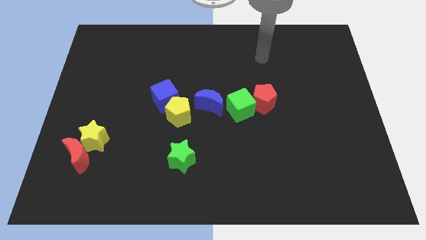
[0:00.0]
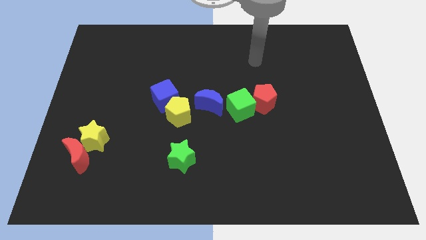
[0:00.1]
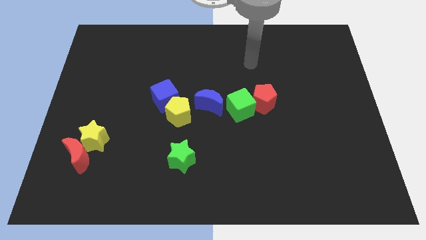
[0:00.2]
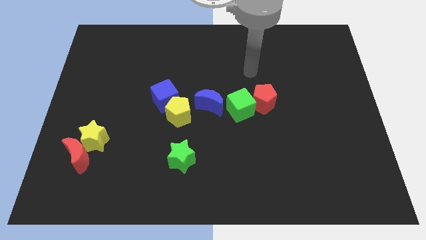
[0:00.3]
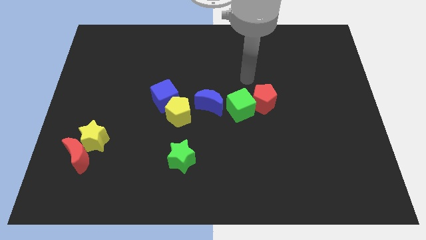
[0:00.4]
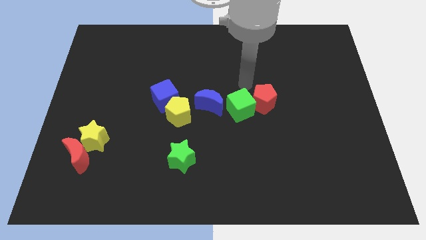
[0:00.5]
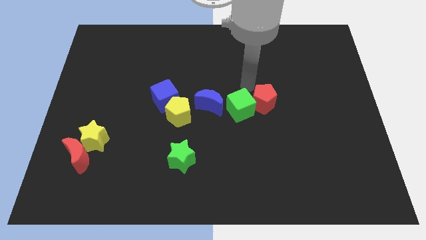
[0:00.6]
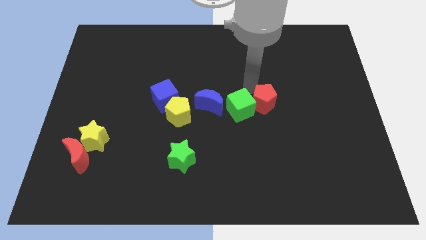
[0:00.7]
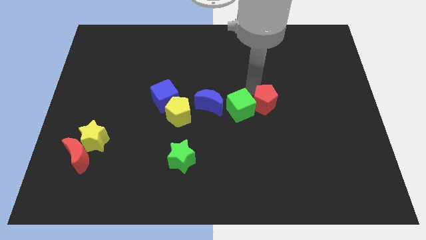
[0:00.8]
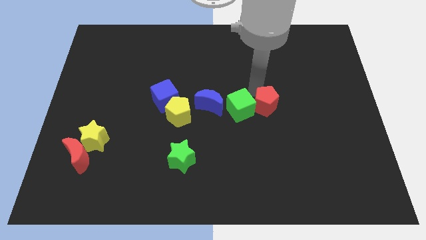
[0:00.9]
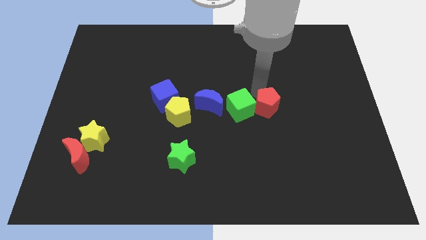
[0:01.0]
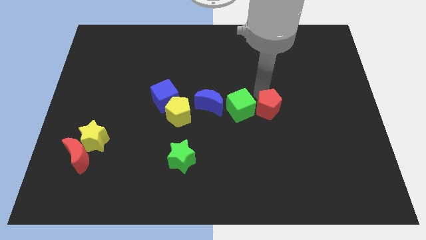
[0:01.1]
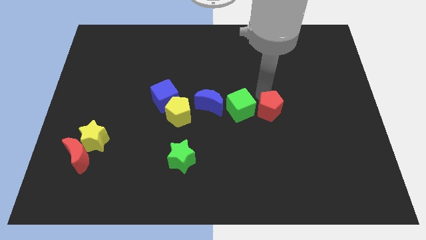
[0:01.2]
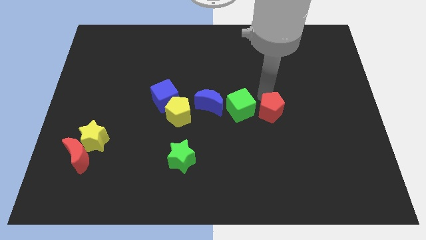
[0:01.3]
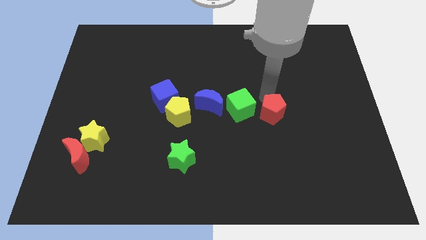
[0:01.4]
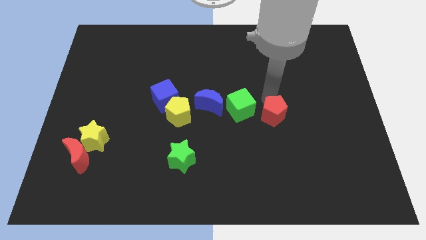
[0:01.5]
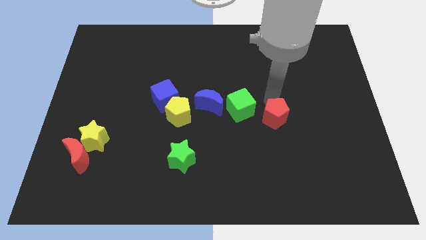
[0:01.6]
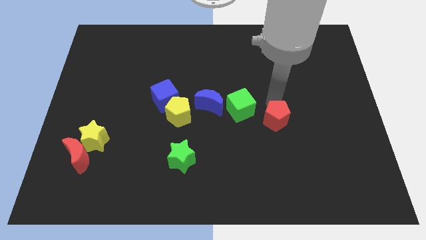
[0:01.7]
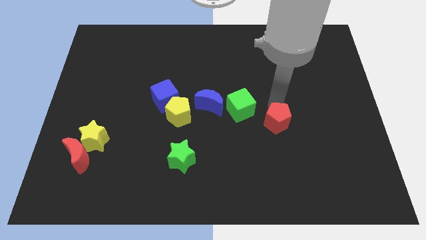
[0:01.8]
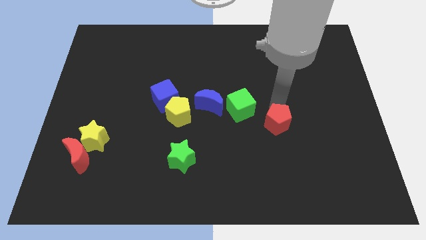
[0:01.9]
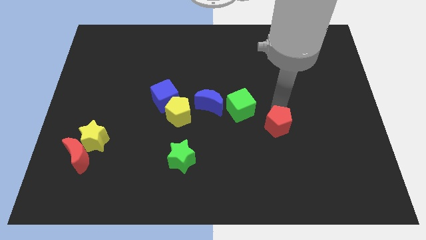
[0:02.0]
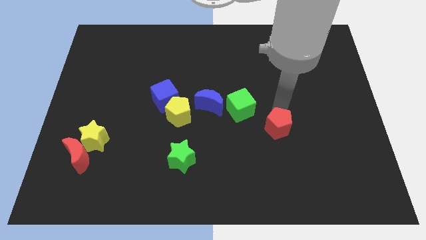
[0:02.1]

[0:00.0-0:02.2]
slide the red pentagon a bit down and right diagonally

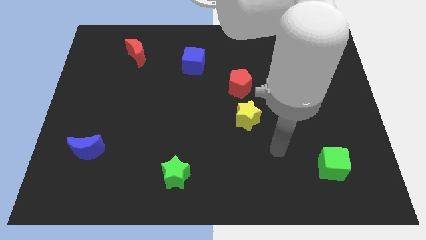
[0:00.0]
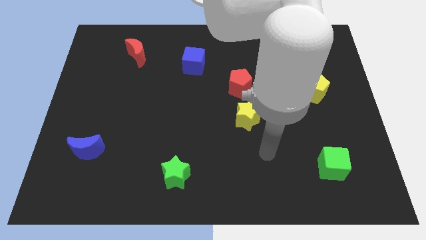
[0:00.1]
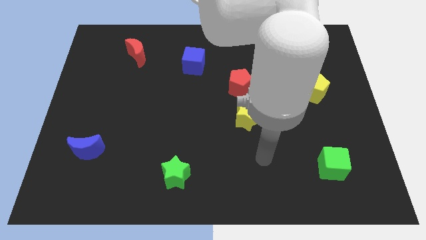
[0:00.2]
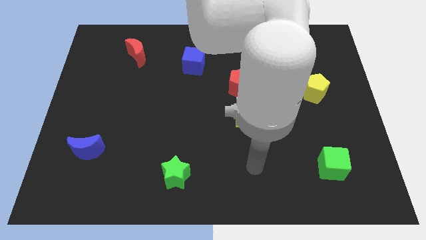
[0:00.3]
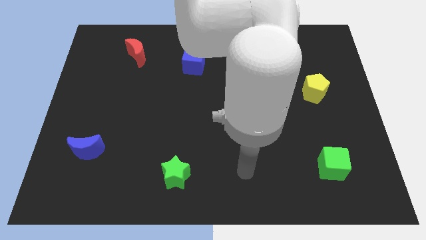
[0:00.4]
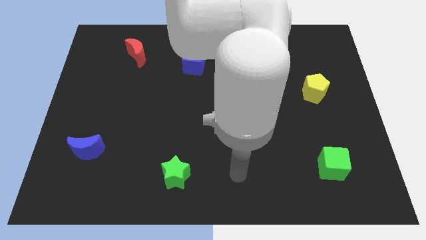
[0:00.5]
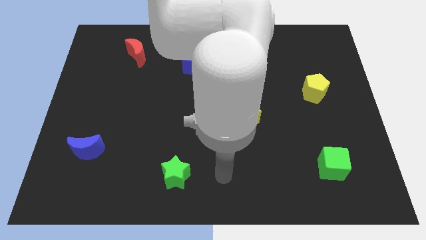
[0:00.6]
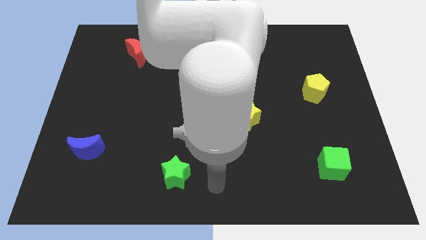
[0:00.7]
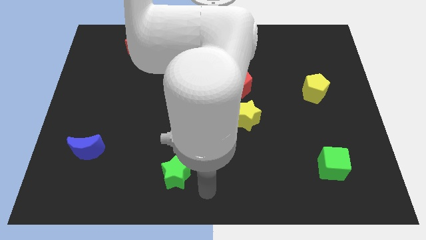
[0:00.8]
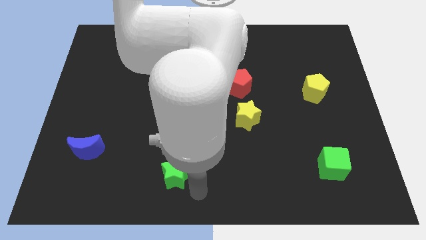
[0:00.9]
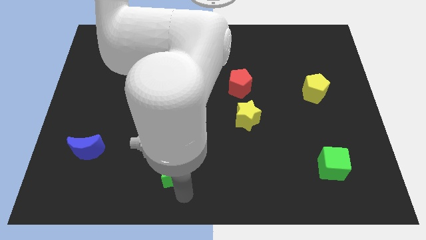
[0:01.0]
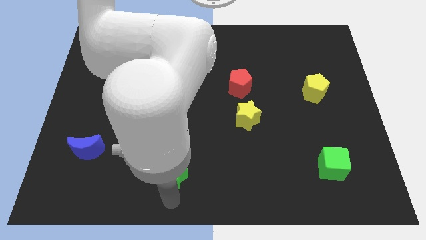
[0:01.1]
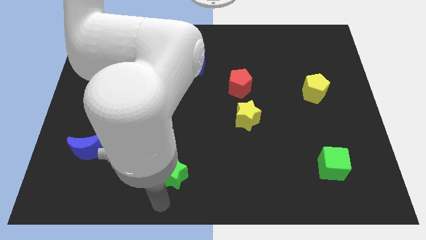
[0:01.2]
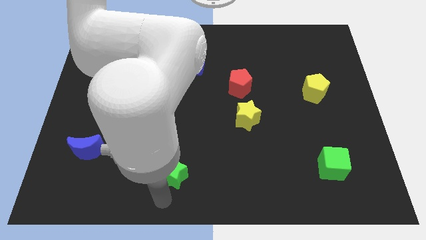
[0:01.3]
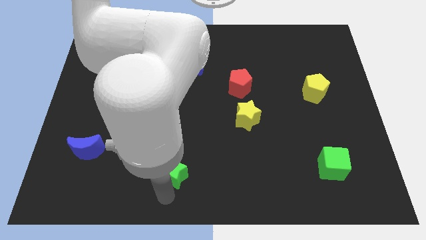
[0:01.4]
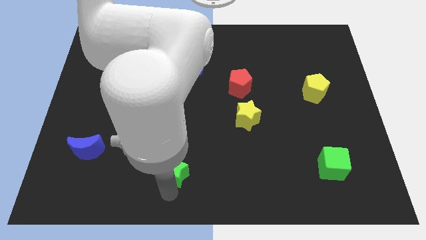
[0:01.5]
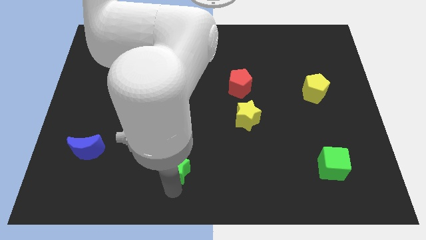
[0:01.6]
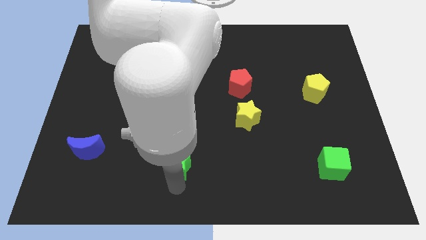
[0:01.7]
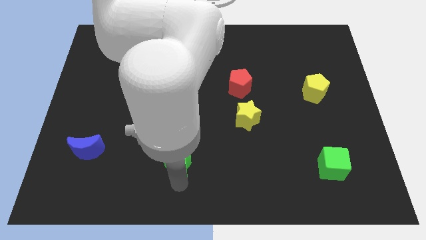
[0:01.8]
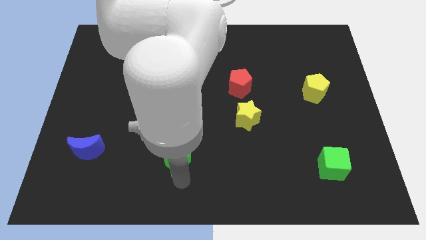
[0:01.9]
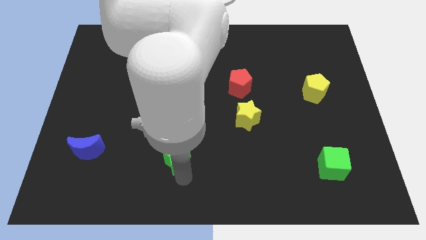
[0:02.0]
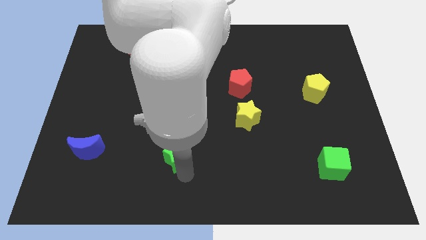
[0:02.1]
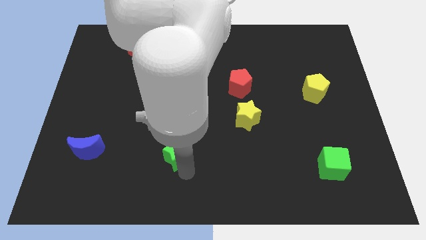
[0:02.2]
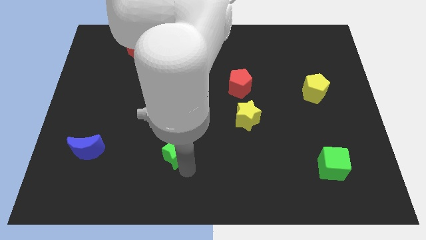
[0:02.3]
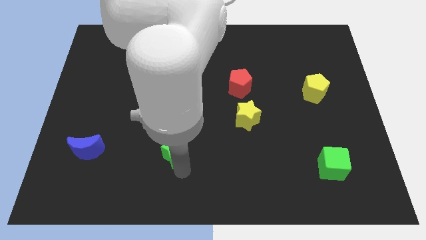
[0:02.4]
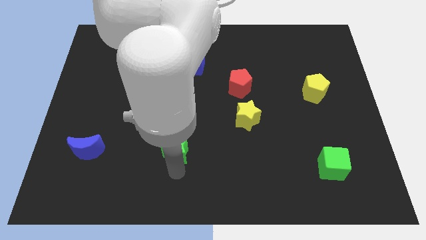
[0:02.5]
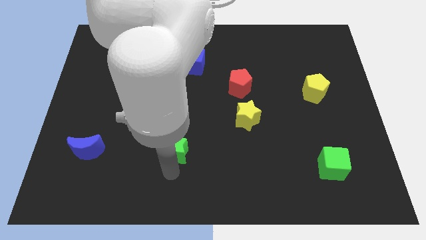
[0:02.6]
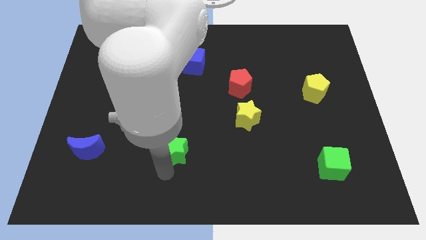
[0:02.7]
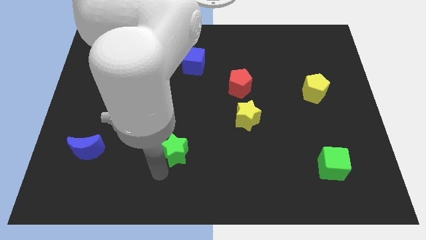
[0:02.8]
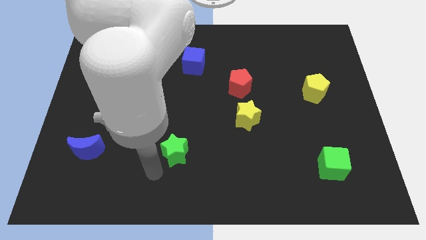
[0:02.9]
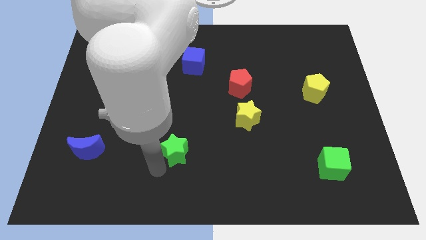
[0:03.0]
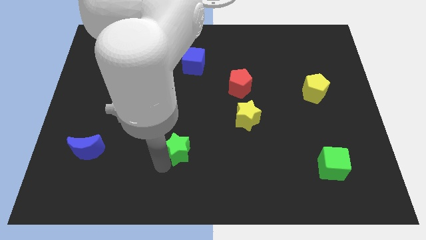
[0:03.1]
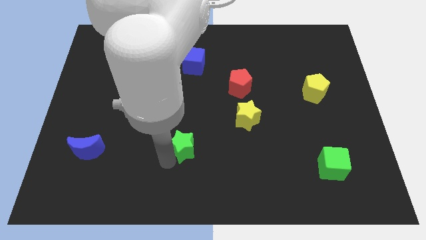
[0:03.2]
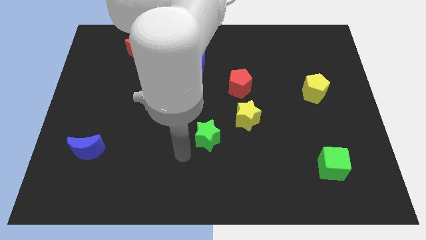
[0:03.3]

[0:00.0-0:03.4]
slide the green star up a bit

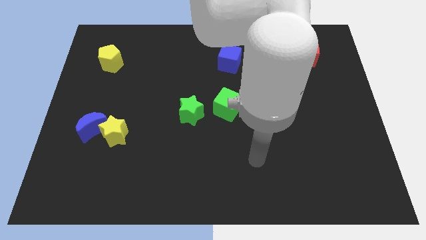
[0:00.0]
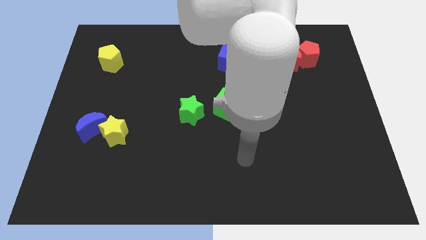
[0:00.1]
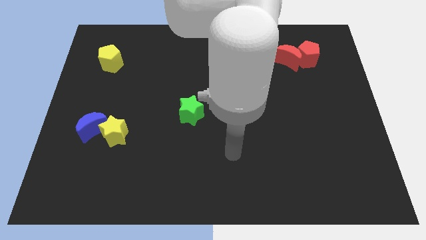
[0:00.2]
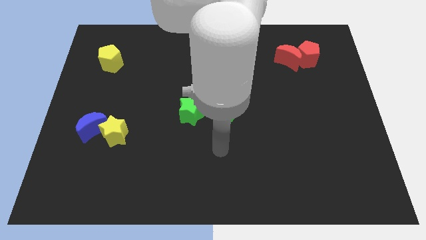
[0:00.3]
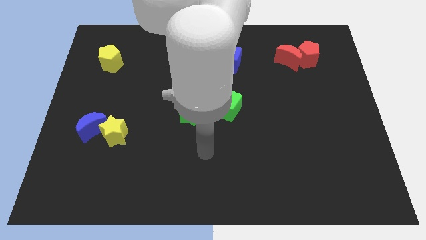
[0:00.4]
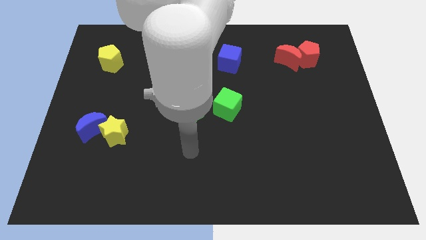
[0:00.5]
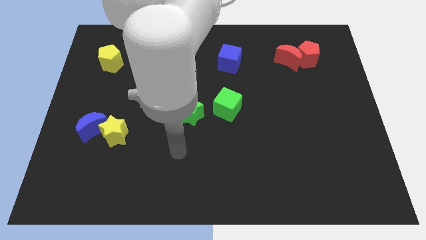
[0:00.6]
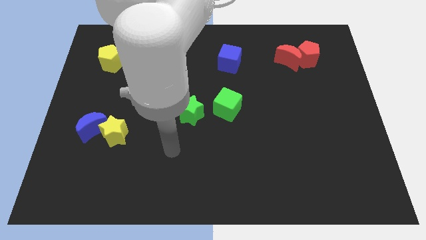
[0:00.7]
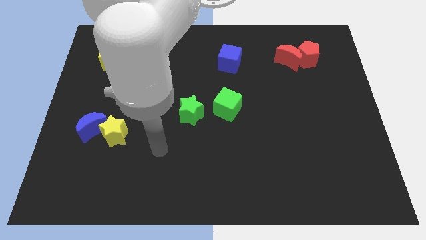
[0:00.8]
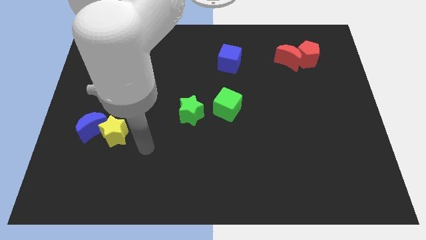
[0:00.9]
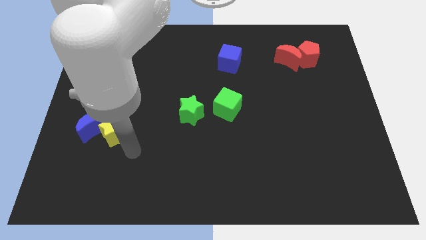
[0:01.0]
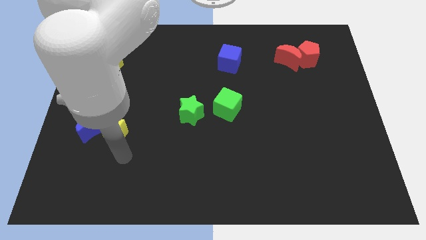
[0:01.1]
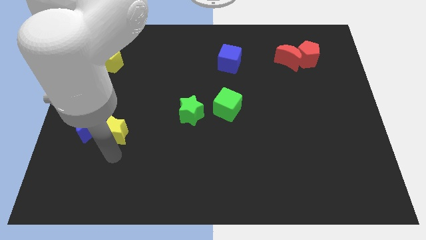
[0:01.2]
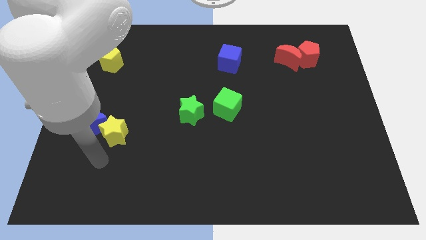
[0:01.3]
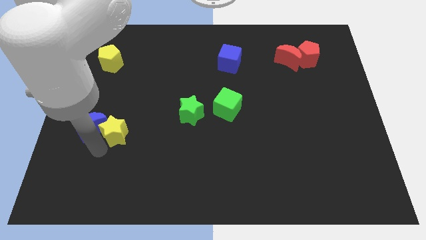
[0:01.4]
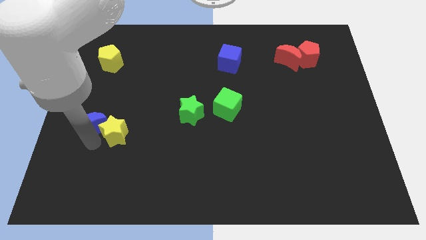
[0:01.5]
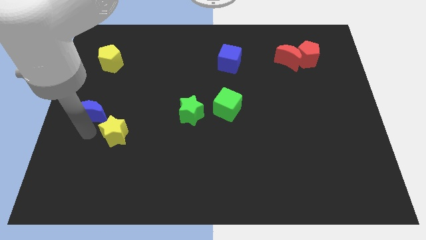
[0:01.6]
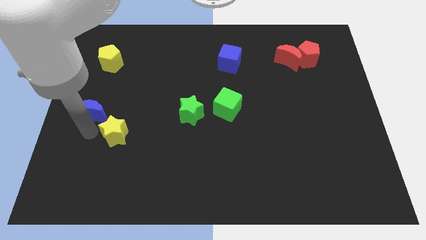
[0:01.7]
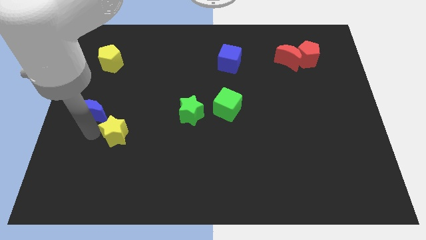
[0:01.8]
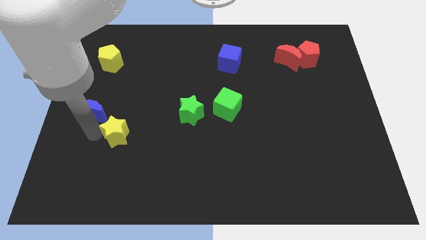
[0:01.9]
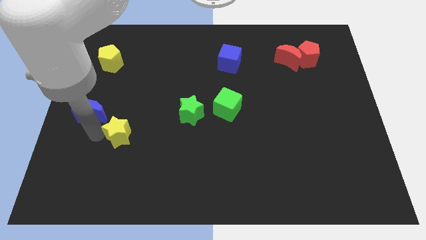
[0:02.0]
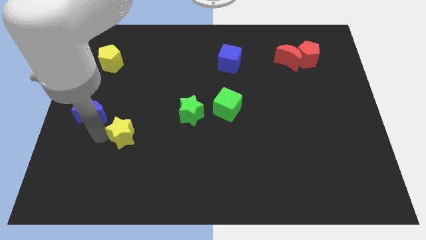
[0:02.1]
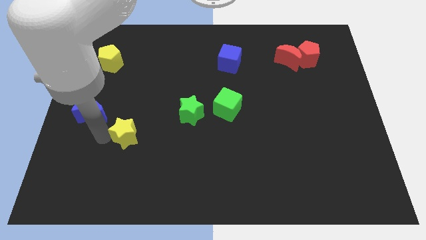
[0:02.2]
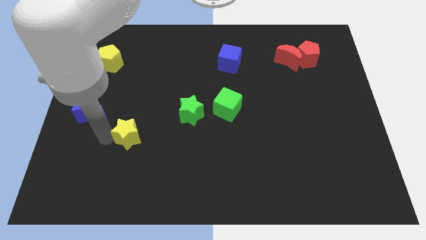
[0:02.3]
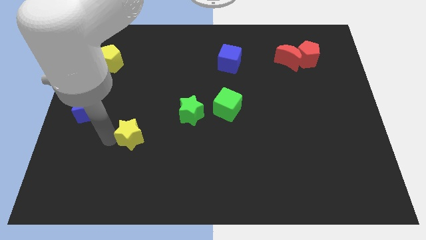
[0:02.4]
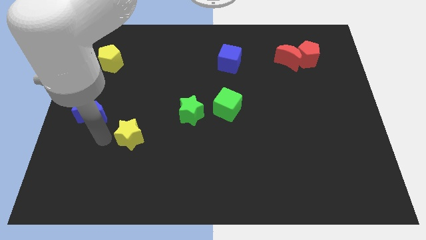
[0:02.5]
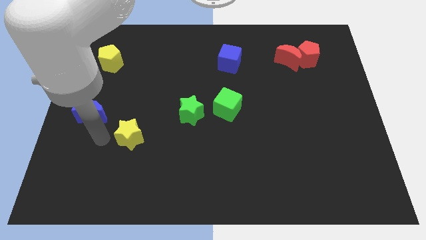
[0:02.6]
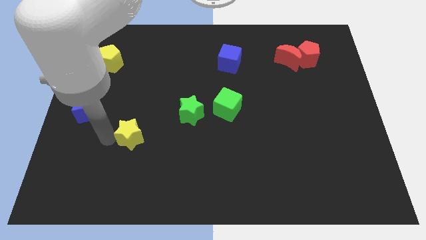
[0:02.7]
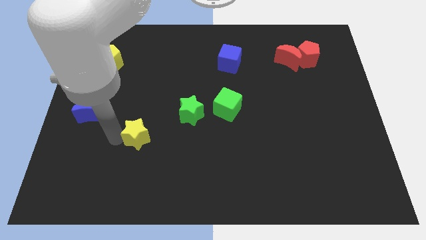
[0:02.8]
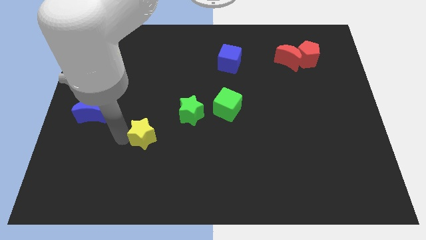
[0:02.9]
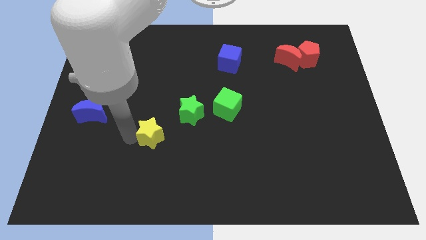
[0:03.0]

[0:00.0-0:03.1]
slide the yellow star right a little bit
